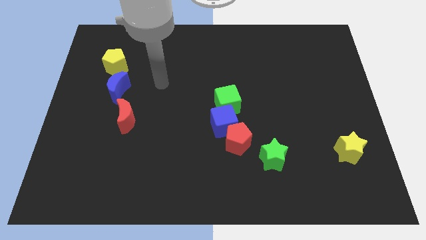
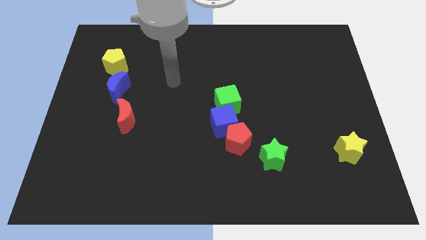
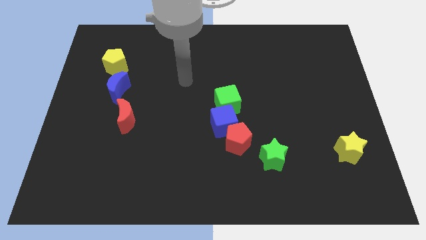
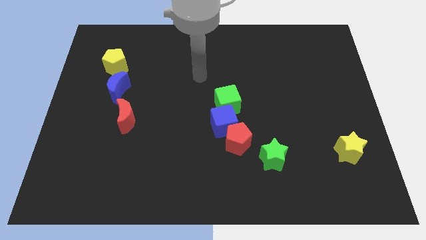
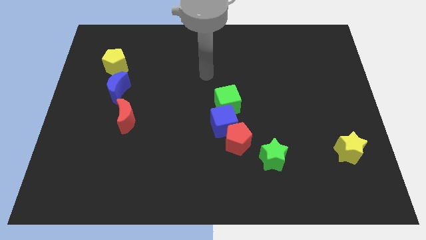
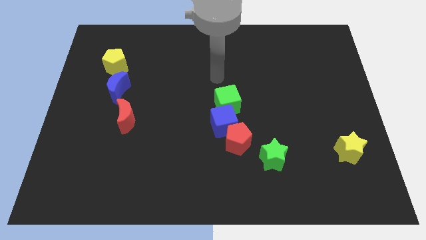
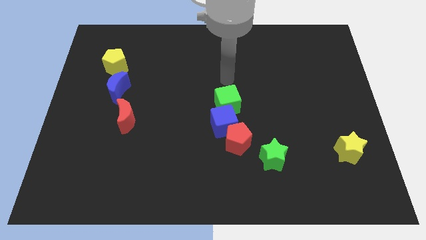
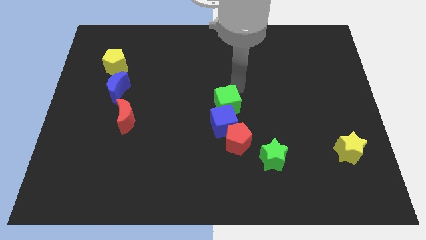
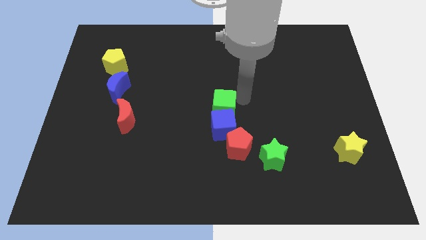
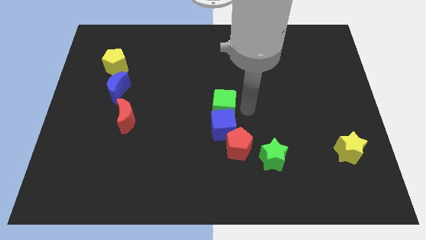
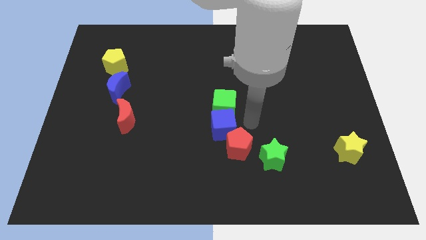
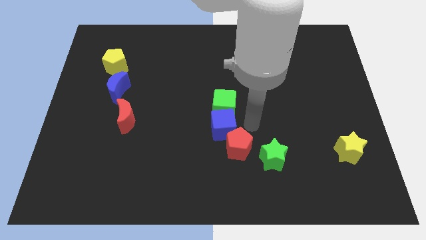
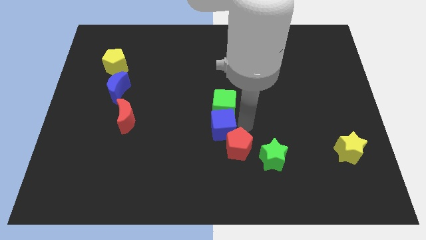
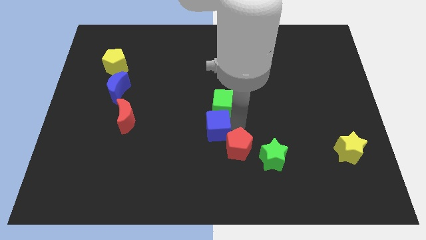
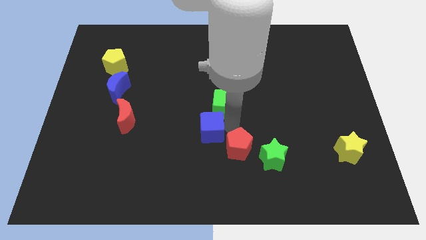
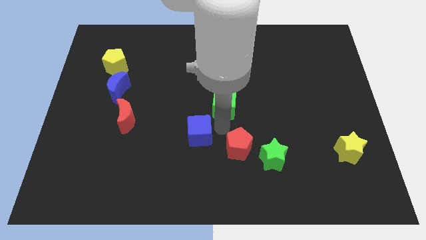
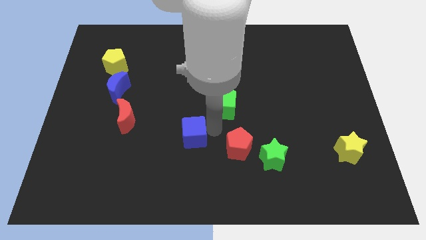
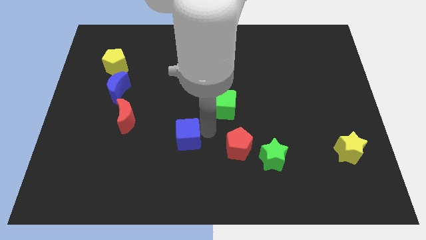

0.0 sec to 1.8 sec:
separate the blue cube from the red pentagon and green cube

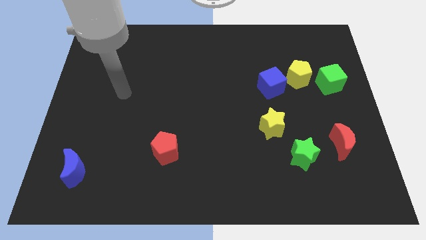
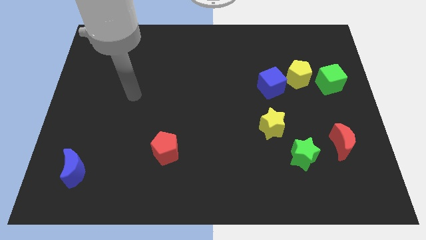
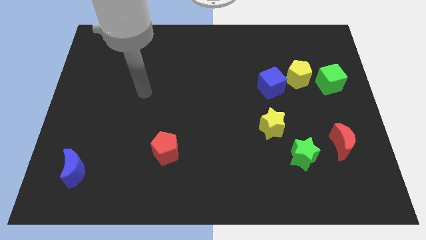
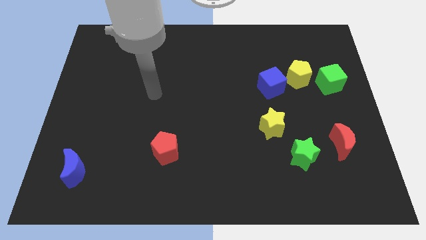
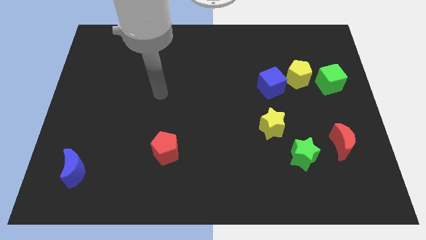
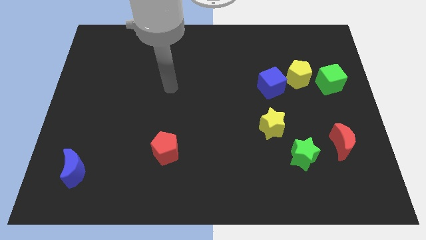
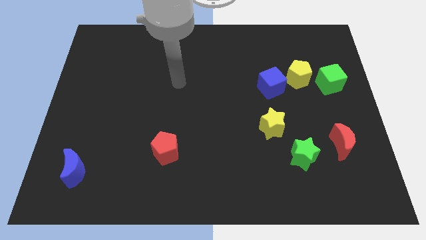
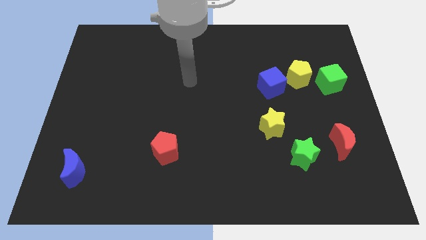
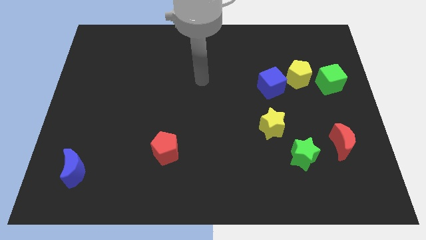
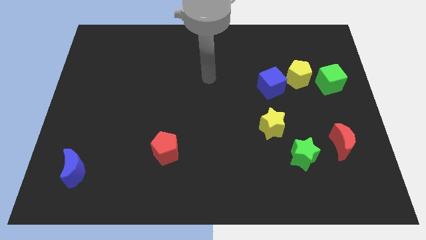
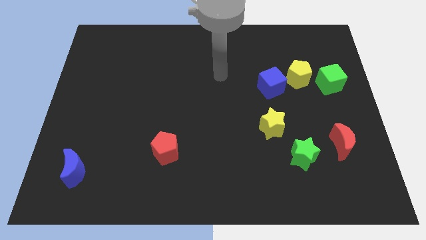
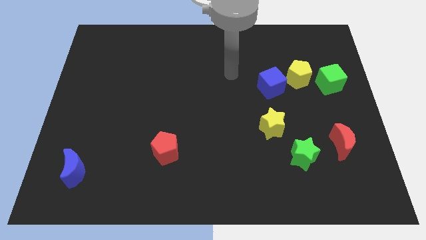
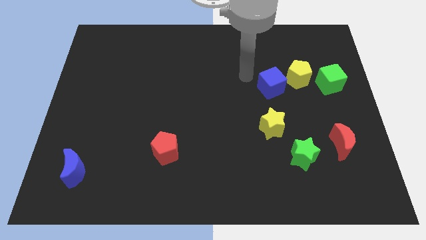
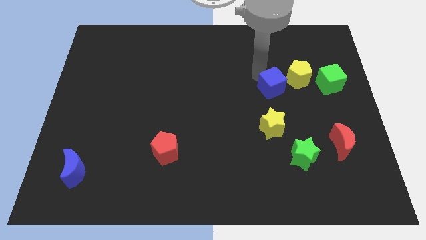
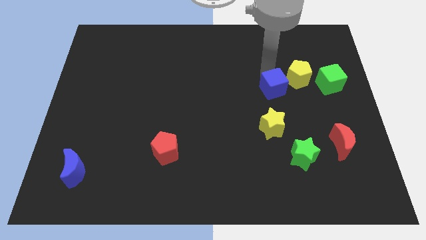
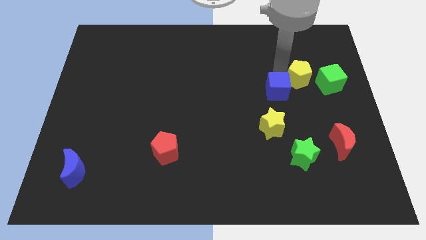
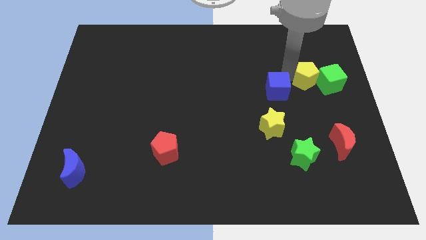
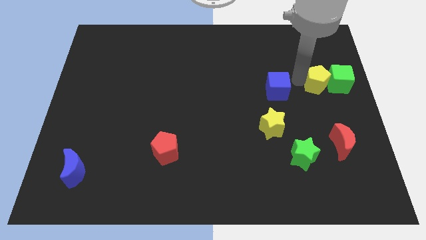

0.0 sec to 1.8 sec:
separate the blue cube from the yellow pentagon

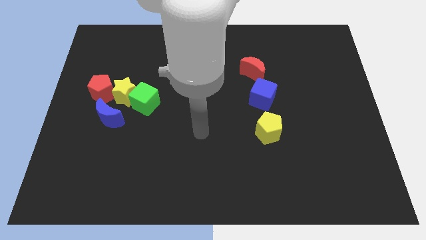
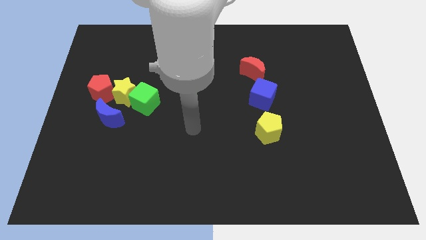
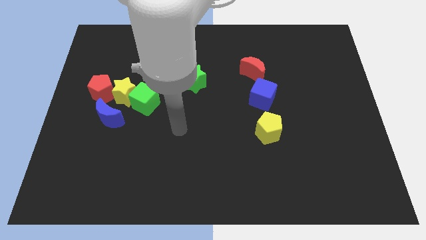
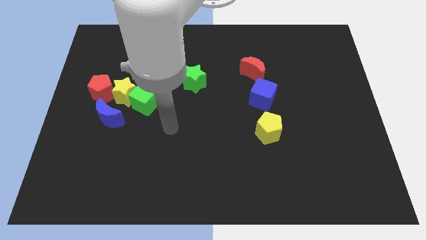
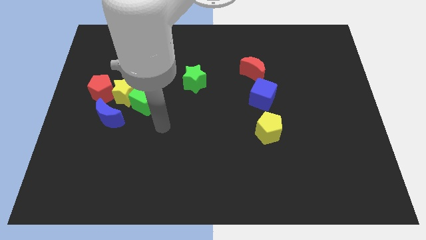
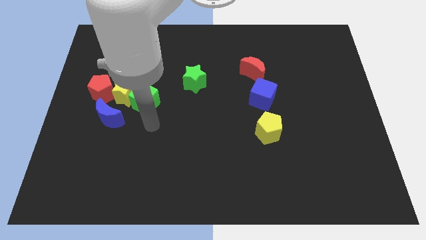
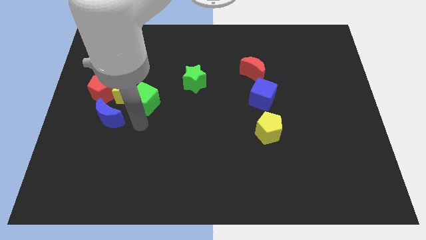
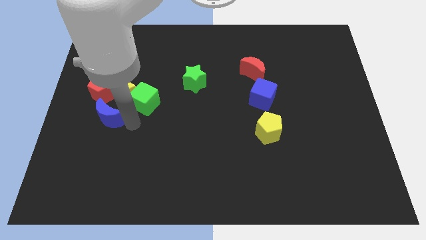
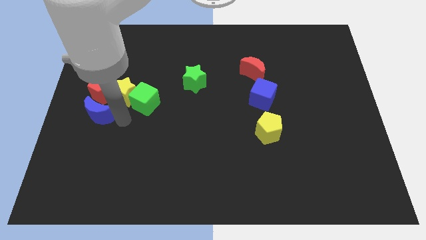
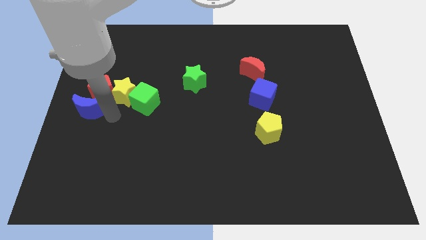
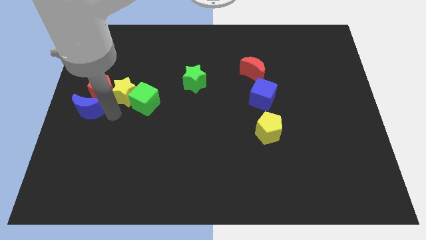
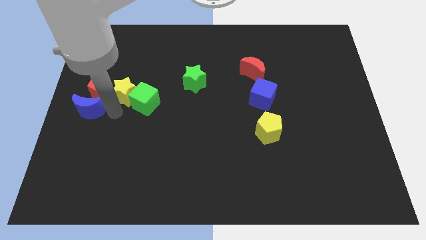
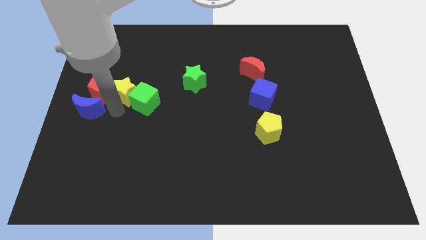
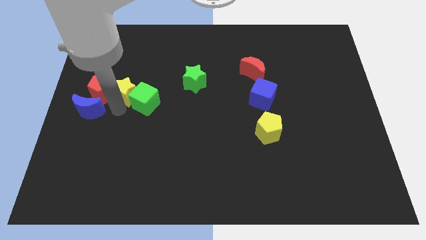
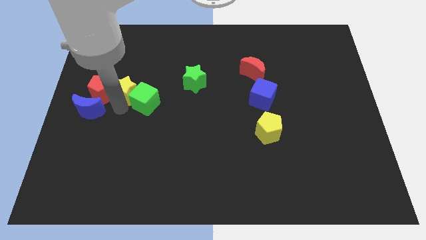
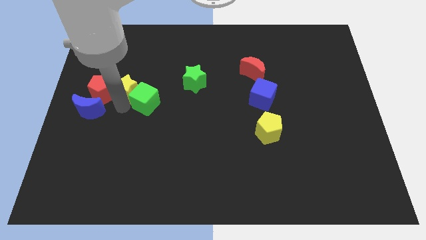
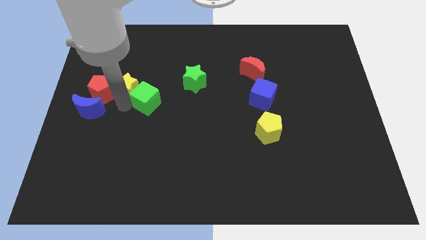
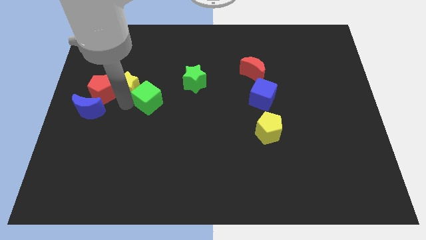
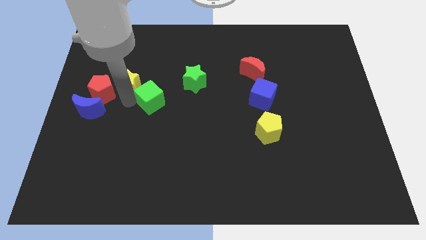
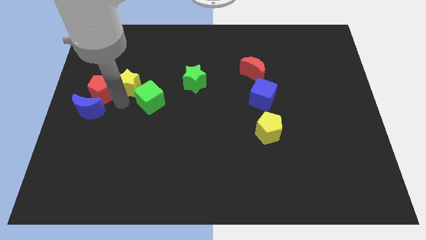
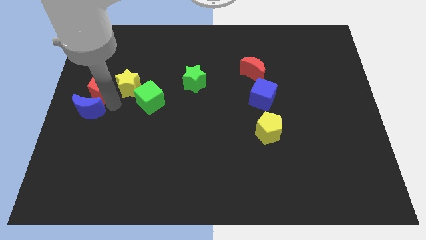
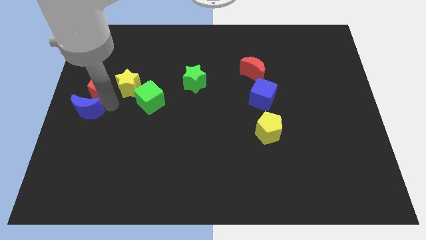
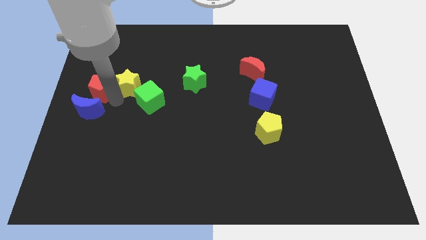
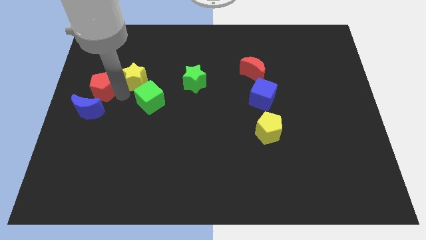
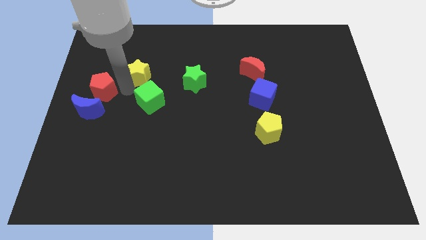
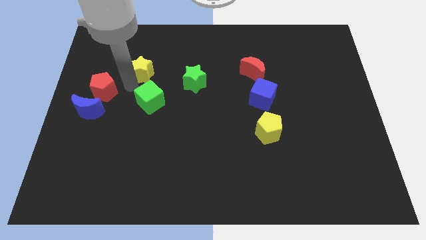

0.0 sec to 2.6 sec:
separate the yellow star from the green cube, red pentagon, and blue moon

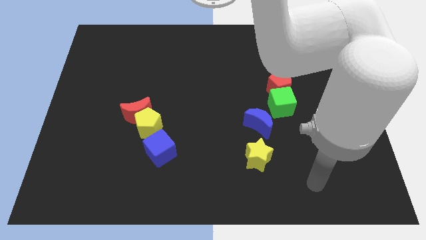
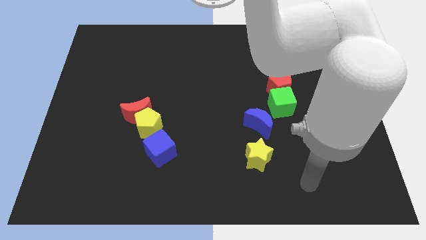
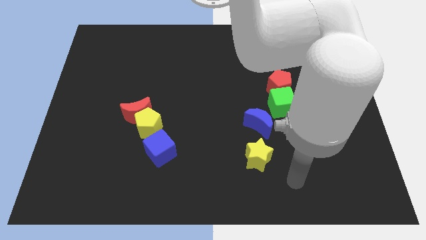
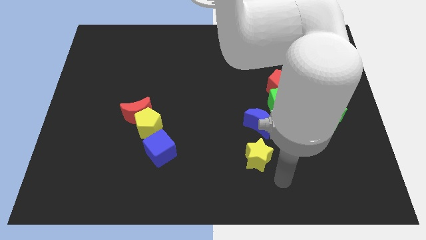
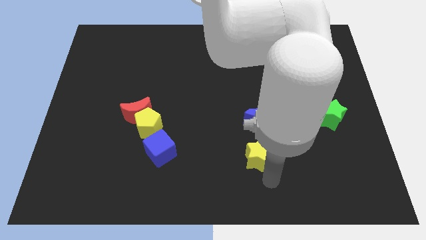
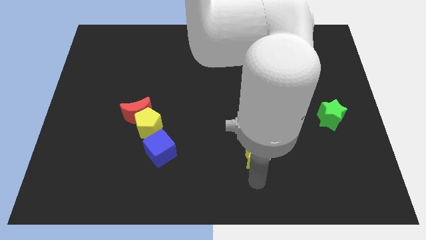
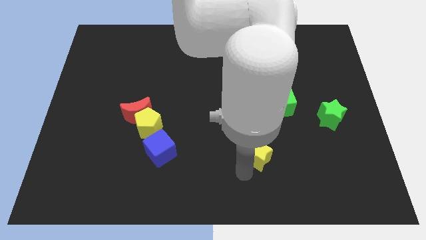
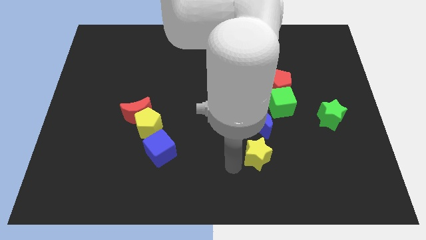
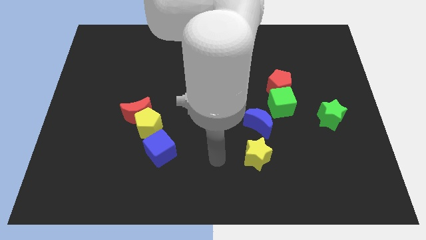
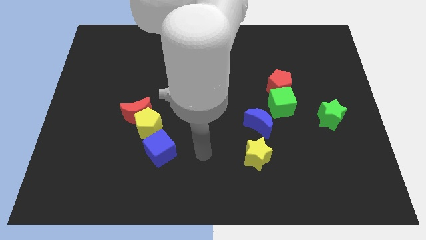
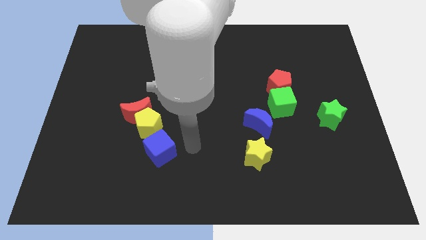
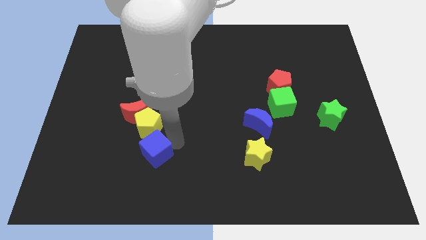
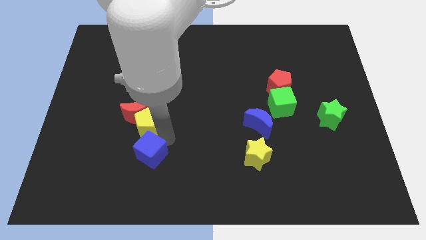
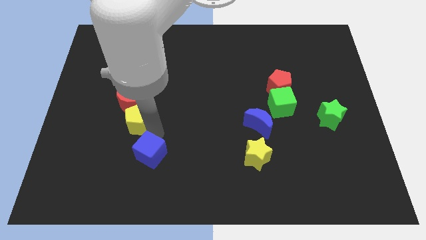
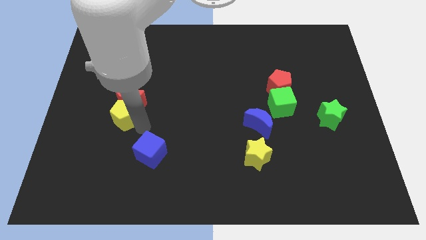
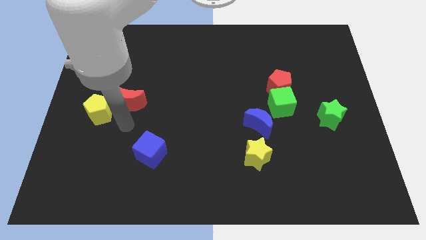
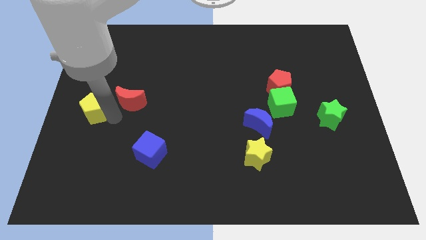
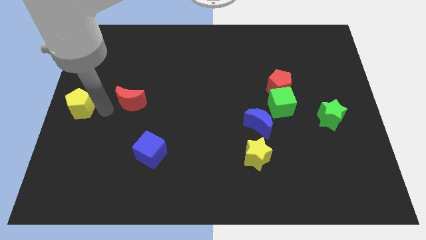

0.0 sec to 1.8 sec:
pull the red moon apart from the yellow pentagon

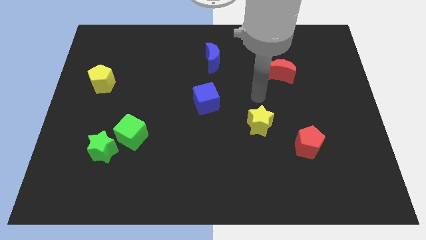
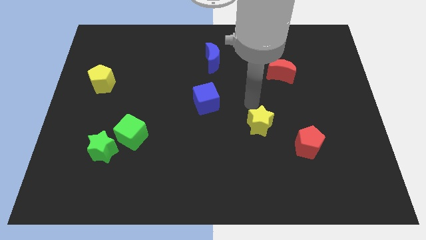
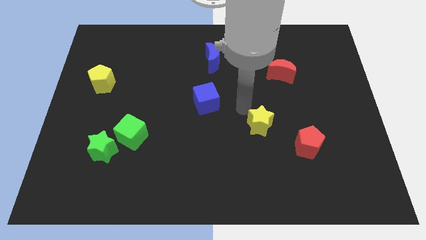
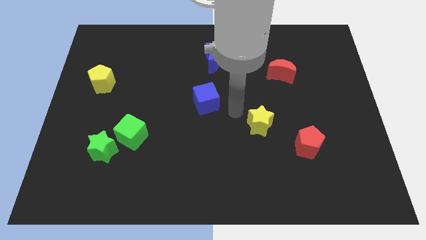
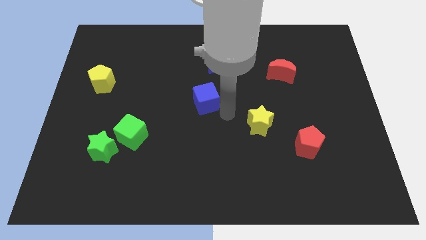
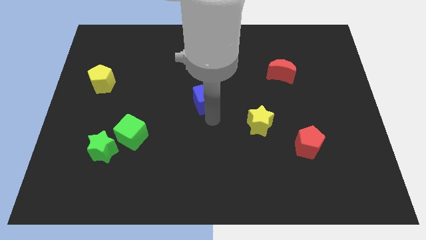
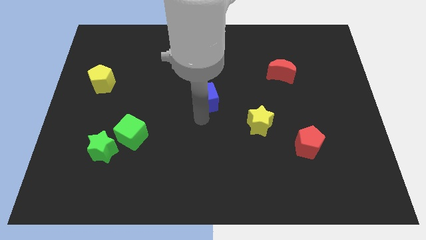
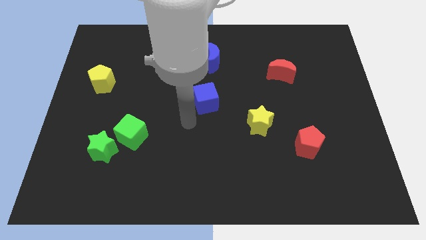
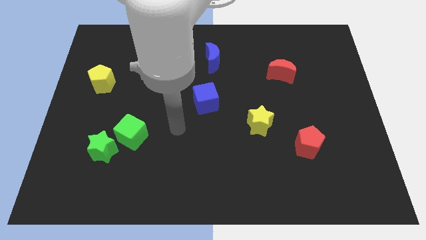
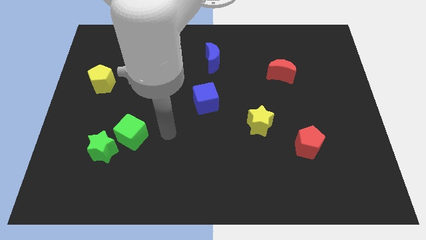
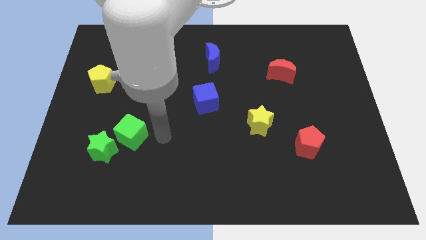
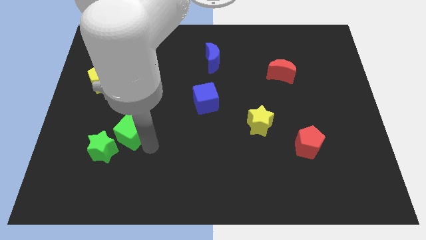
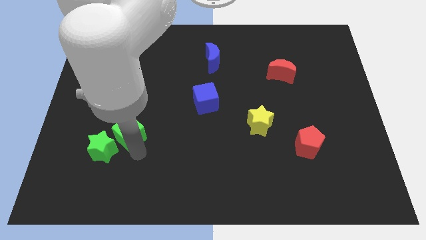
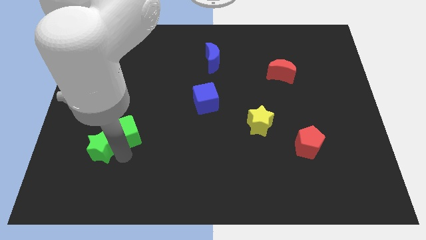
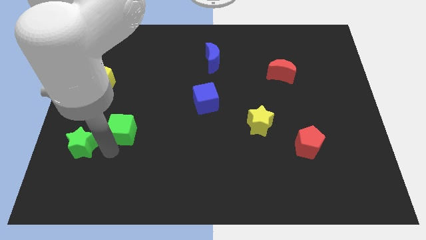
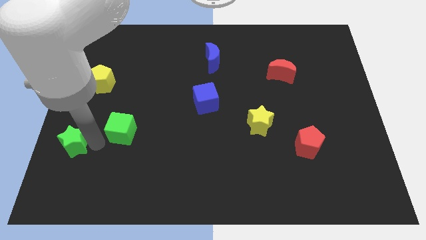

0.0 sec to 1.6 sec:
separate the green cube from the green star
